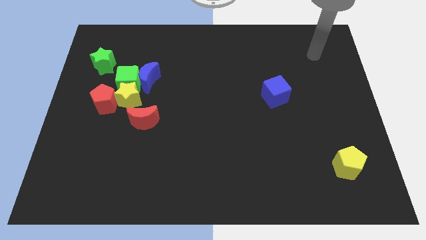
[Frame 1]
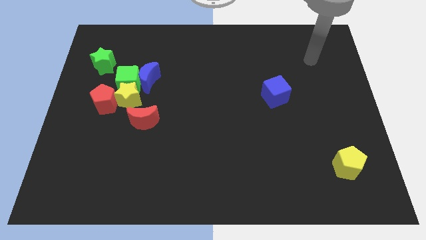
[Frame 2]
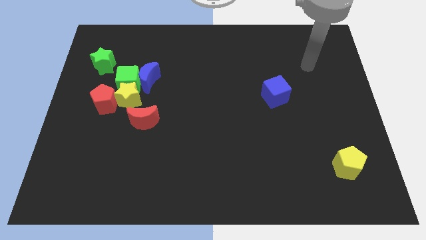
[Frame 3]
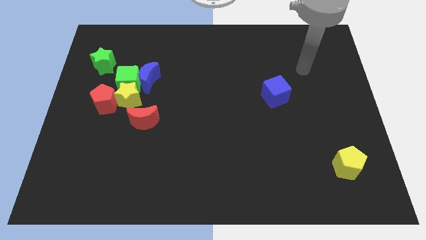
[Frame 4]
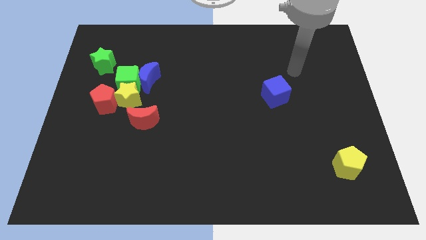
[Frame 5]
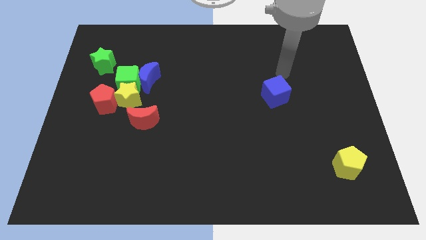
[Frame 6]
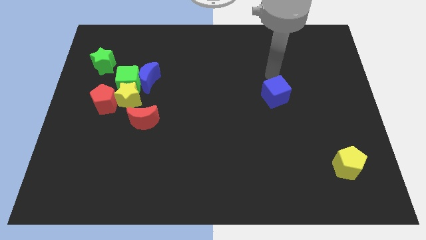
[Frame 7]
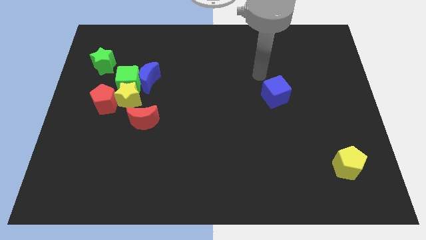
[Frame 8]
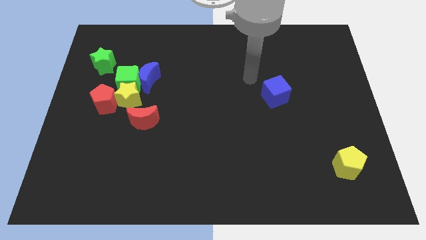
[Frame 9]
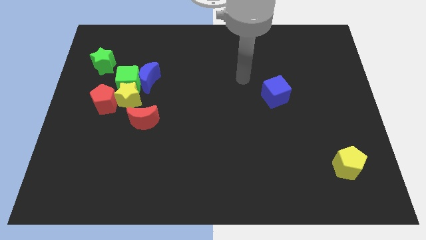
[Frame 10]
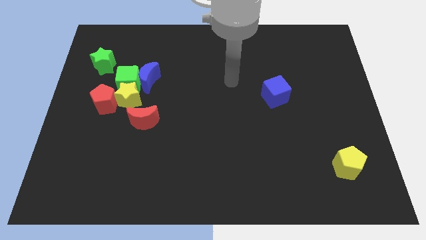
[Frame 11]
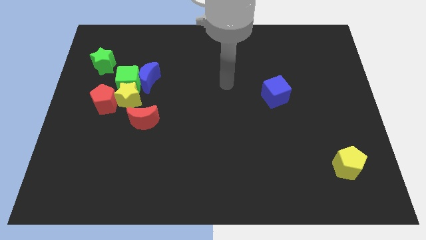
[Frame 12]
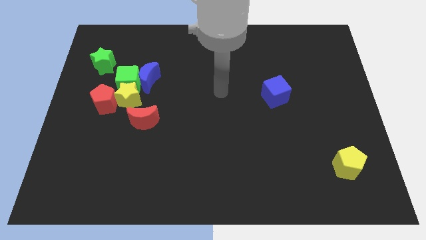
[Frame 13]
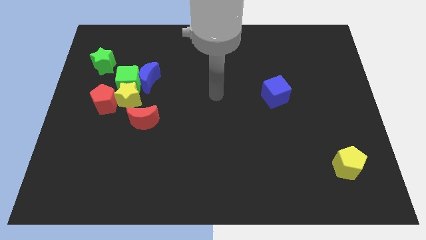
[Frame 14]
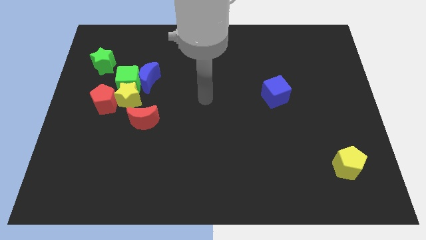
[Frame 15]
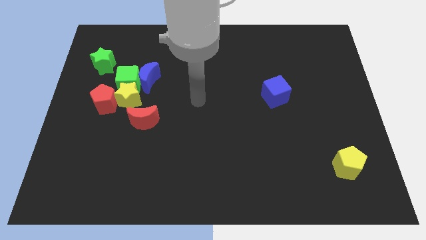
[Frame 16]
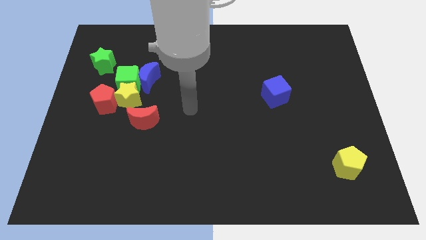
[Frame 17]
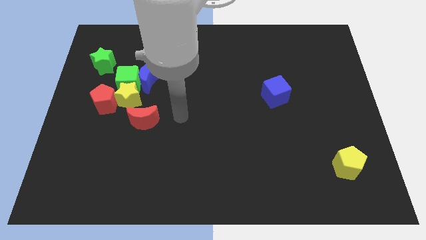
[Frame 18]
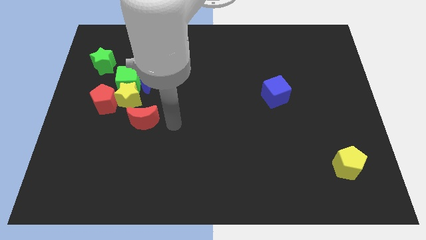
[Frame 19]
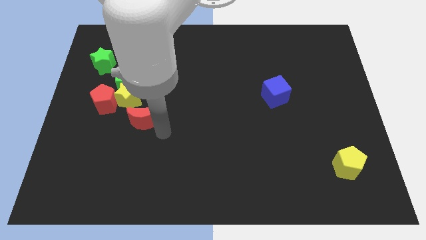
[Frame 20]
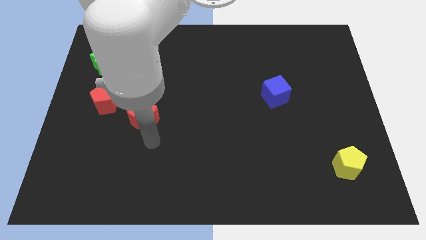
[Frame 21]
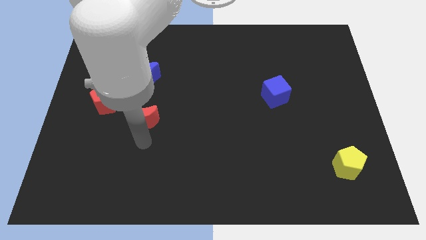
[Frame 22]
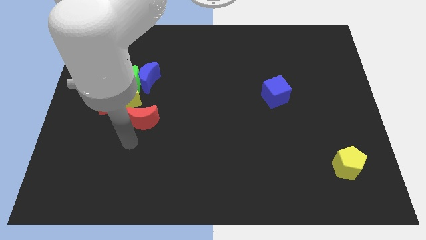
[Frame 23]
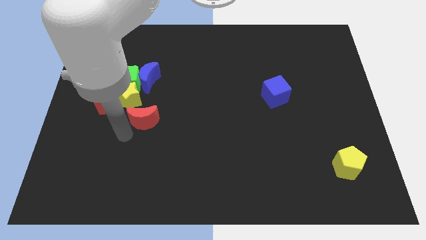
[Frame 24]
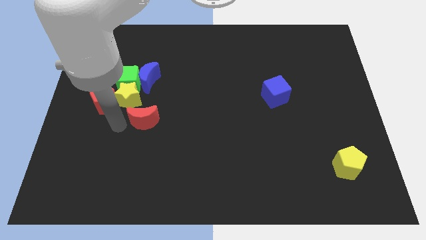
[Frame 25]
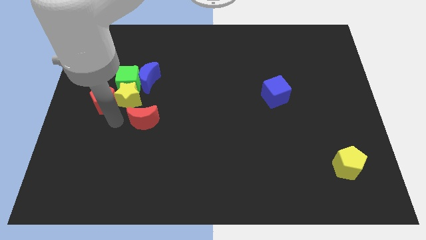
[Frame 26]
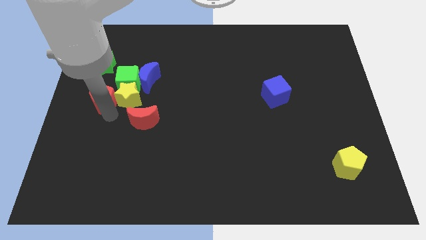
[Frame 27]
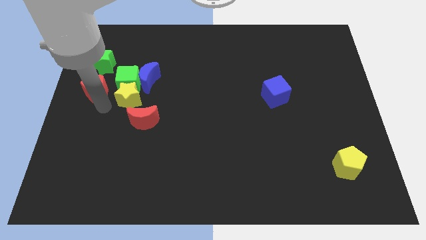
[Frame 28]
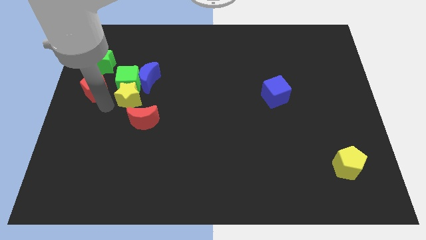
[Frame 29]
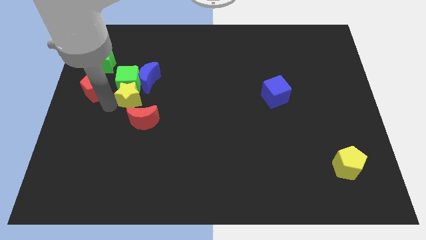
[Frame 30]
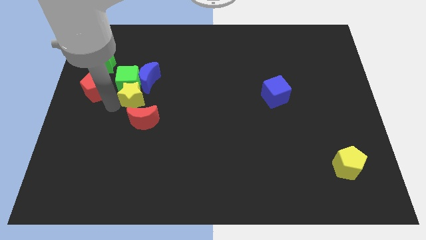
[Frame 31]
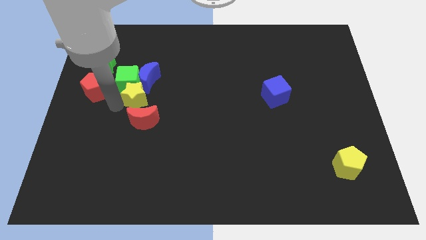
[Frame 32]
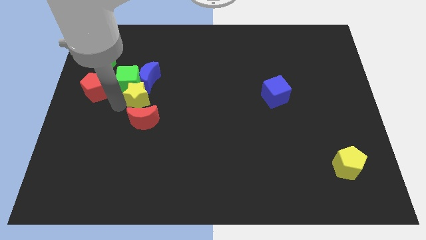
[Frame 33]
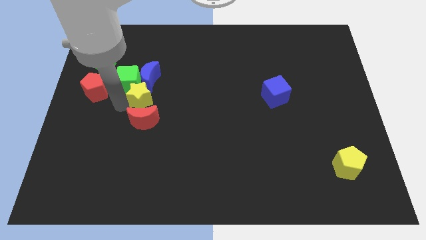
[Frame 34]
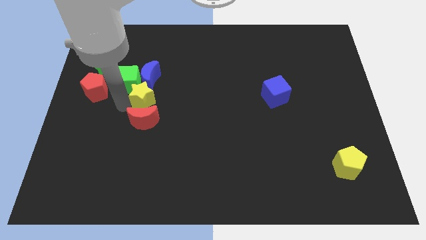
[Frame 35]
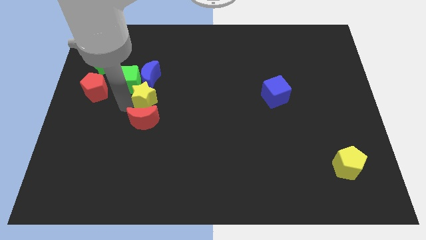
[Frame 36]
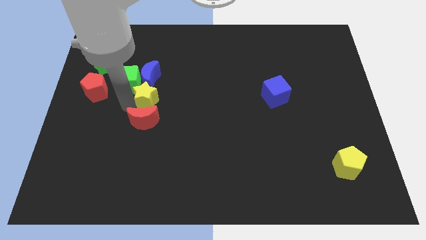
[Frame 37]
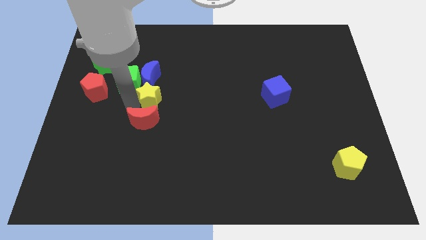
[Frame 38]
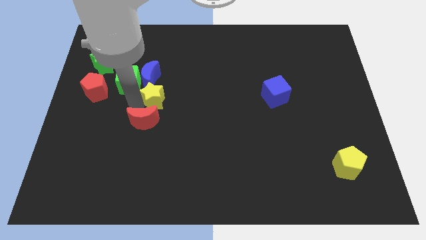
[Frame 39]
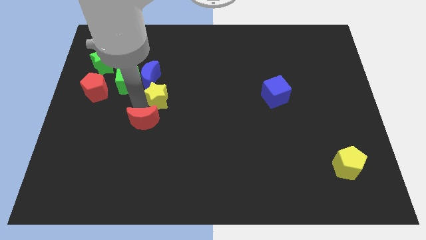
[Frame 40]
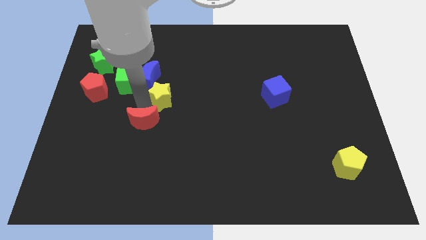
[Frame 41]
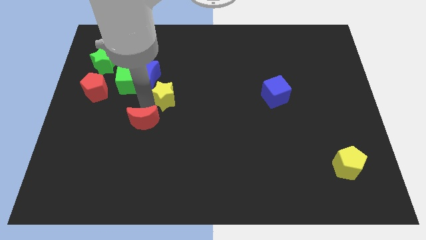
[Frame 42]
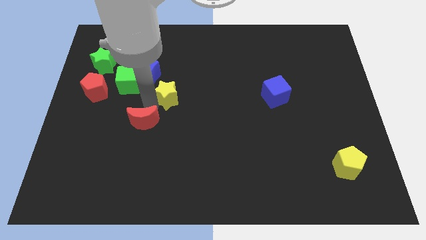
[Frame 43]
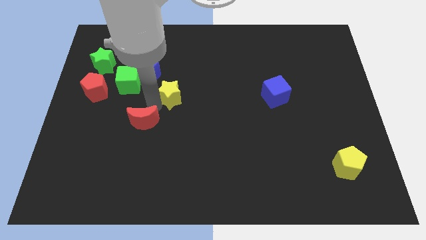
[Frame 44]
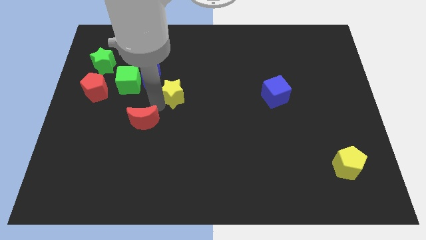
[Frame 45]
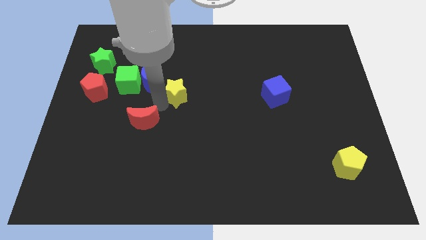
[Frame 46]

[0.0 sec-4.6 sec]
push the yellow star a bit up and then to the right

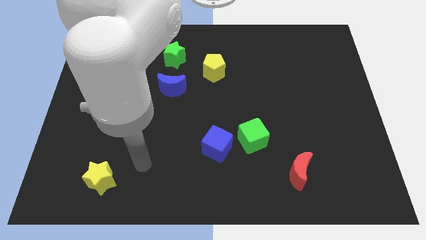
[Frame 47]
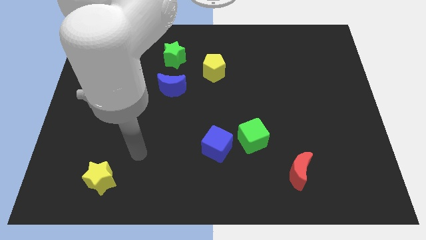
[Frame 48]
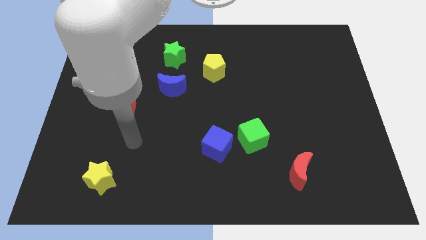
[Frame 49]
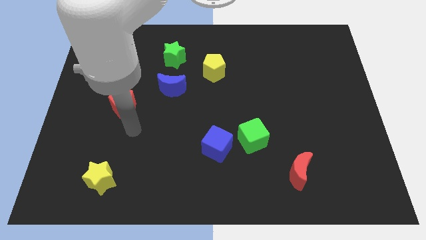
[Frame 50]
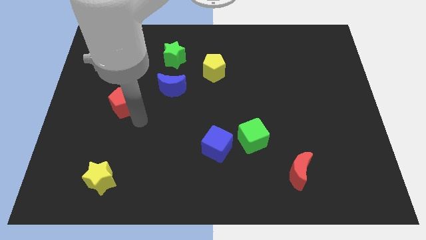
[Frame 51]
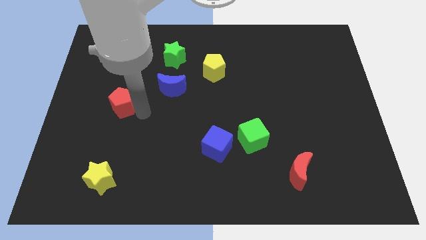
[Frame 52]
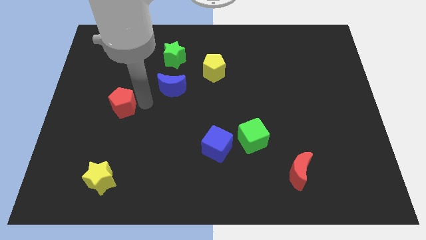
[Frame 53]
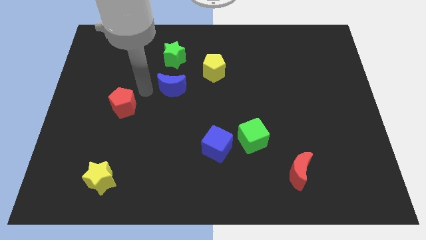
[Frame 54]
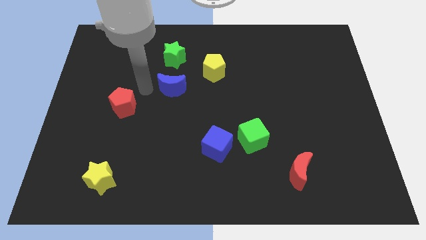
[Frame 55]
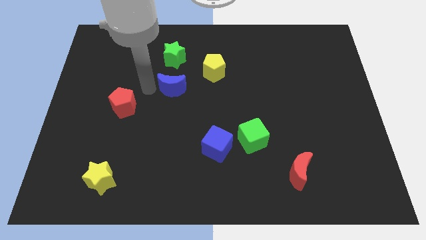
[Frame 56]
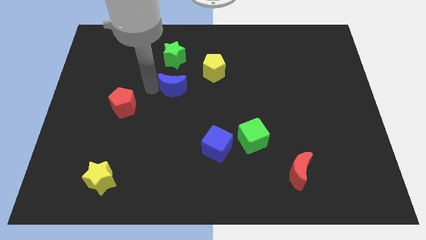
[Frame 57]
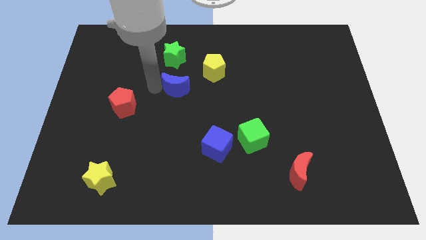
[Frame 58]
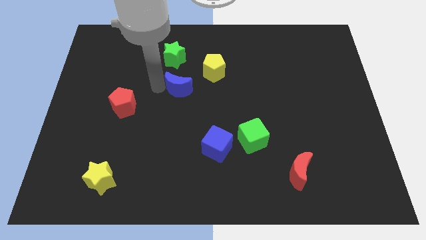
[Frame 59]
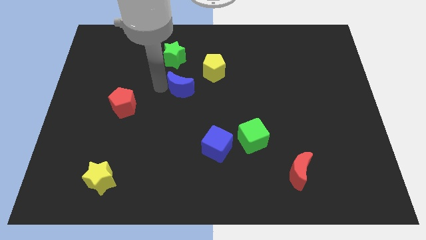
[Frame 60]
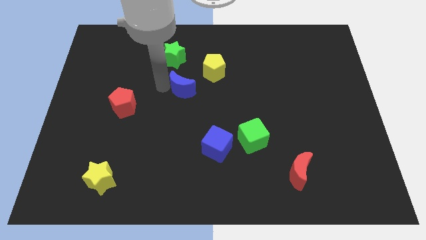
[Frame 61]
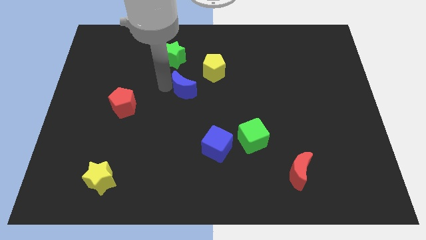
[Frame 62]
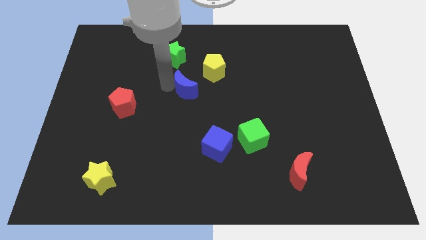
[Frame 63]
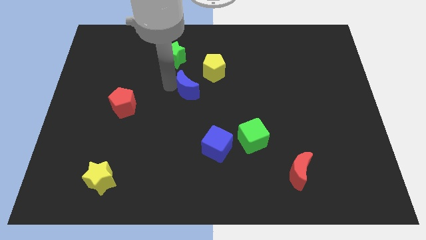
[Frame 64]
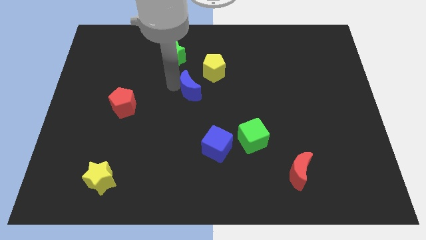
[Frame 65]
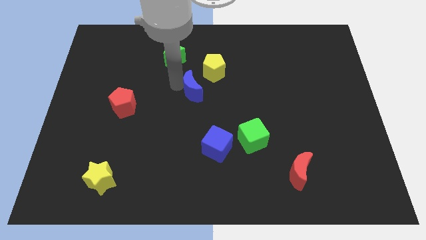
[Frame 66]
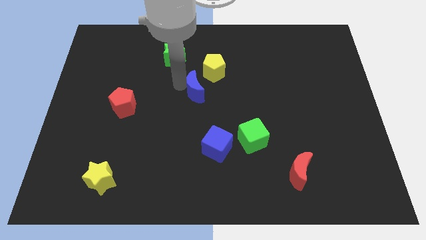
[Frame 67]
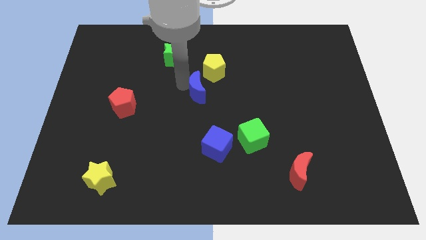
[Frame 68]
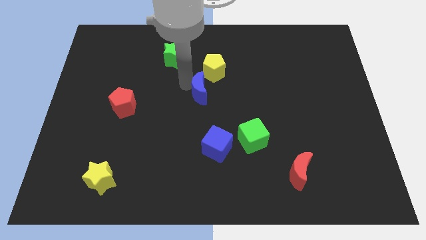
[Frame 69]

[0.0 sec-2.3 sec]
slightly move the blue moon right

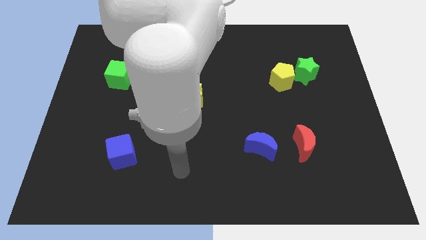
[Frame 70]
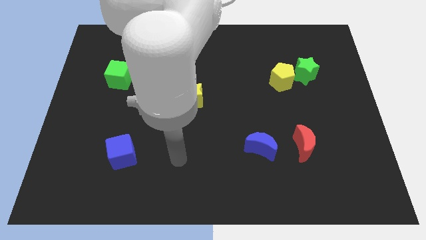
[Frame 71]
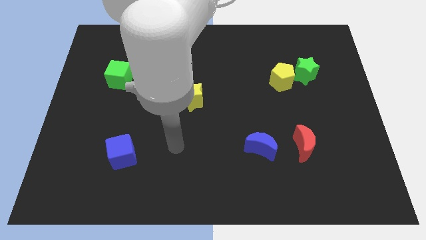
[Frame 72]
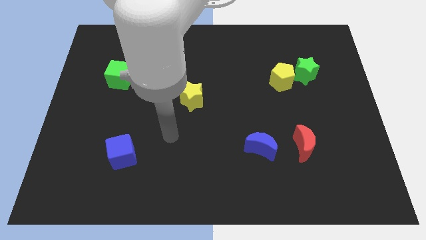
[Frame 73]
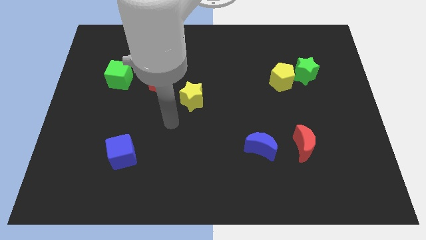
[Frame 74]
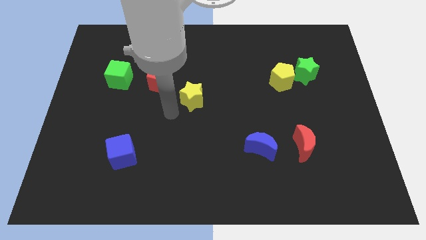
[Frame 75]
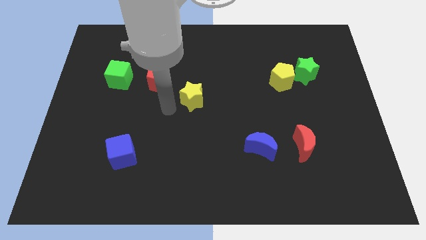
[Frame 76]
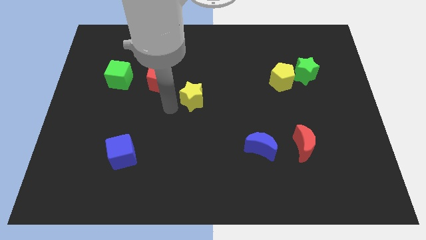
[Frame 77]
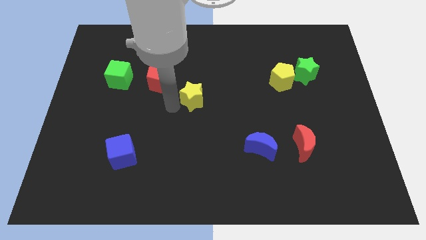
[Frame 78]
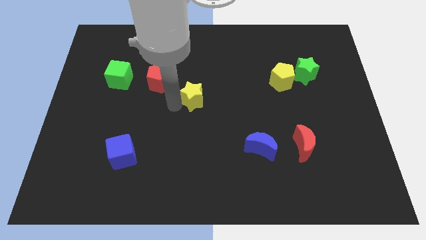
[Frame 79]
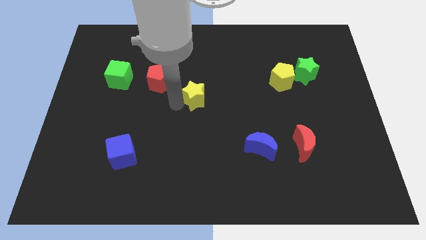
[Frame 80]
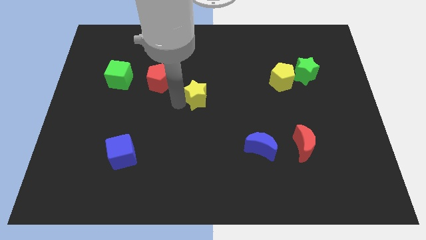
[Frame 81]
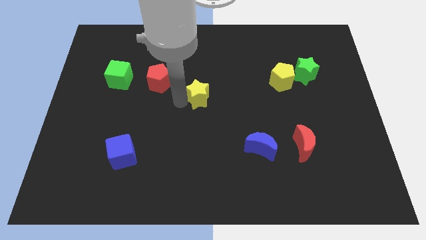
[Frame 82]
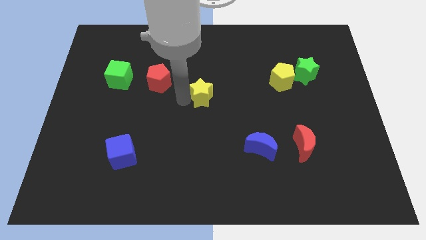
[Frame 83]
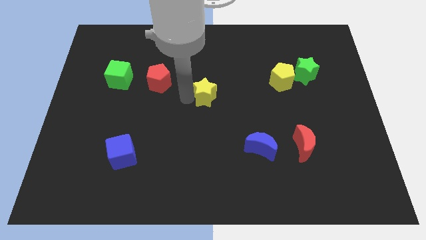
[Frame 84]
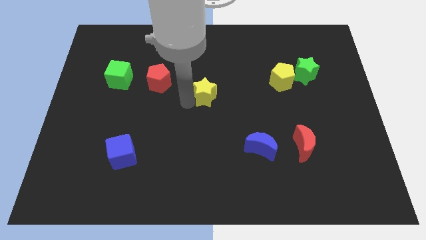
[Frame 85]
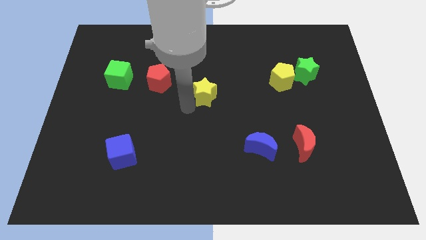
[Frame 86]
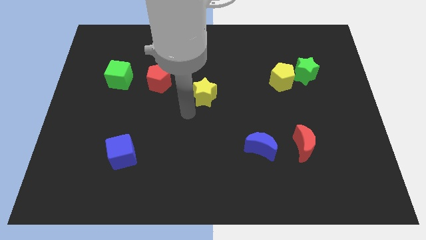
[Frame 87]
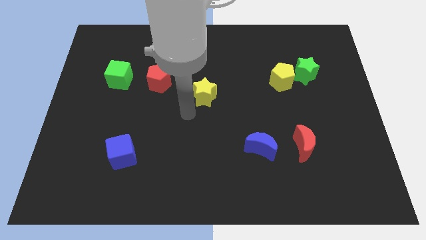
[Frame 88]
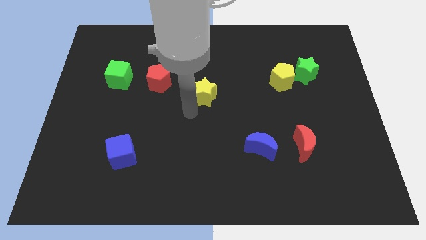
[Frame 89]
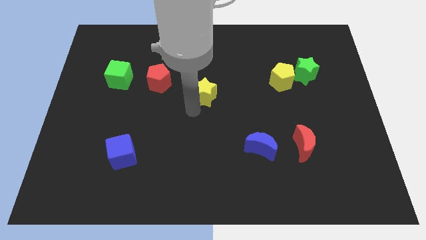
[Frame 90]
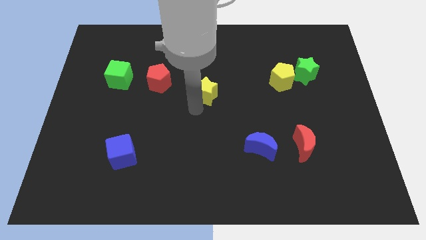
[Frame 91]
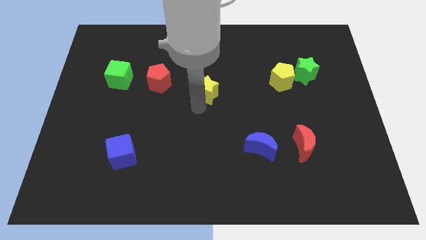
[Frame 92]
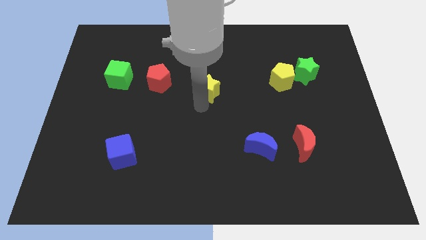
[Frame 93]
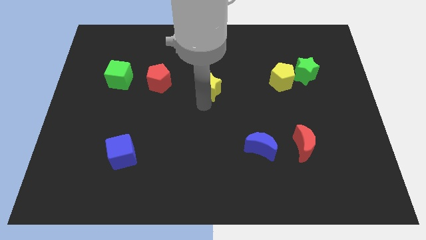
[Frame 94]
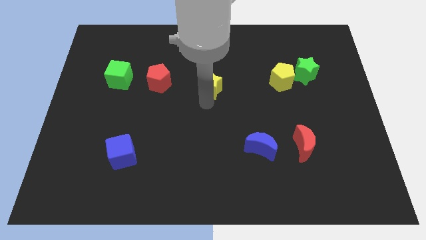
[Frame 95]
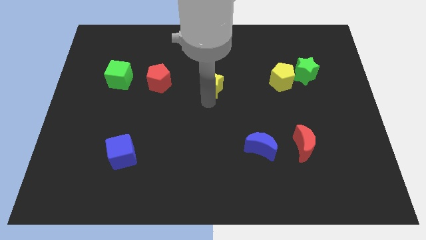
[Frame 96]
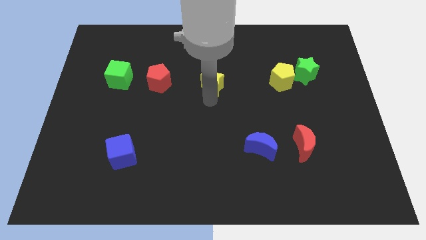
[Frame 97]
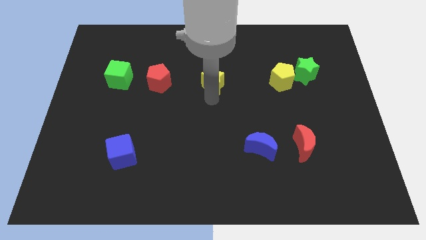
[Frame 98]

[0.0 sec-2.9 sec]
move the yellow star upwards and to the right diagonally a little bit
